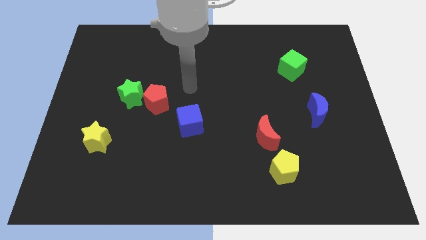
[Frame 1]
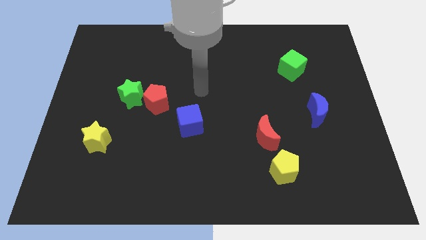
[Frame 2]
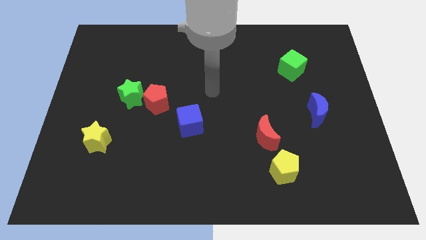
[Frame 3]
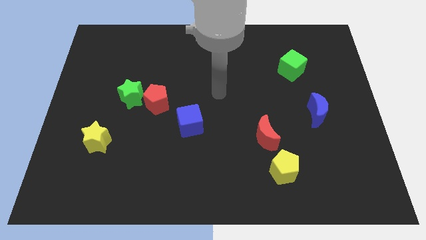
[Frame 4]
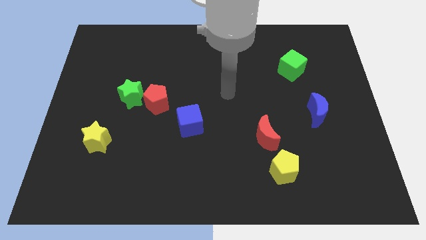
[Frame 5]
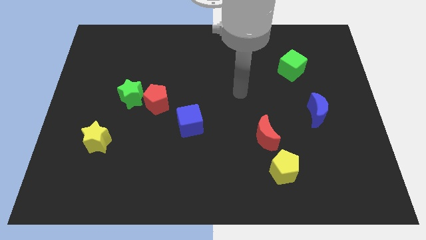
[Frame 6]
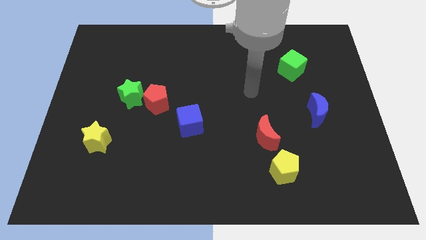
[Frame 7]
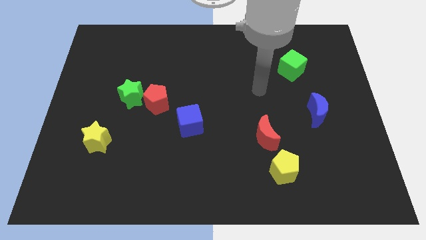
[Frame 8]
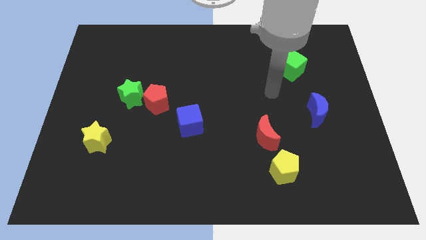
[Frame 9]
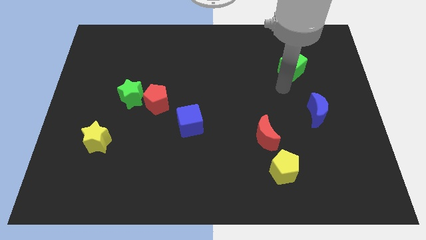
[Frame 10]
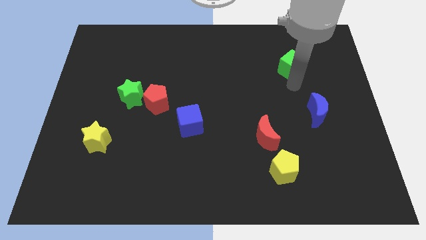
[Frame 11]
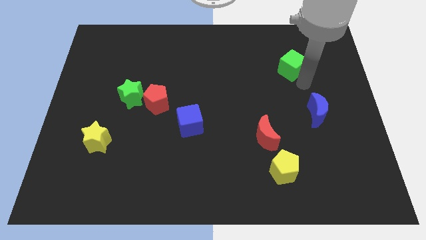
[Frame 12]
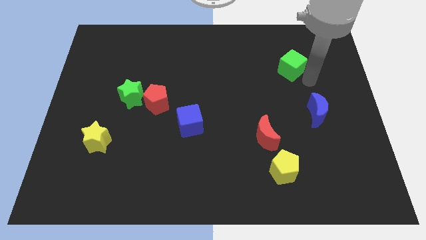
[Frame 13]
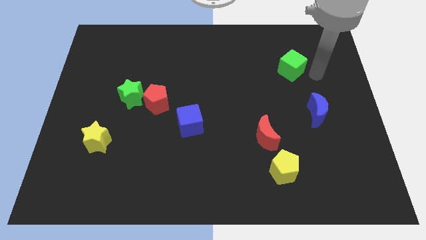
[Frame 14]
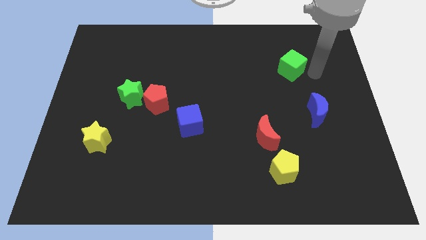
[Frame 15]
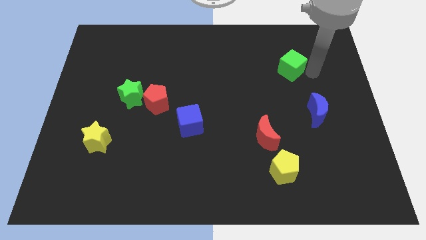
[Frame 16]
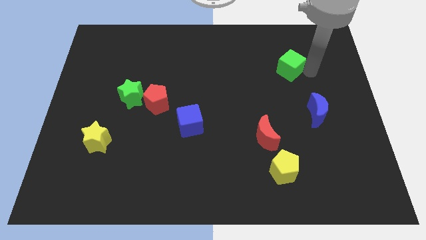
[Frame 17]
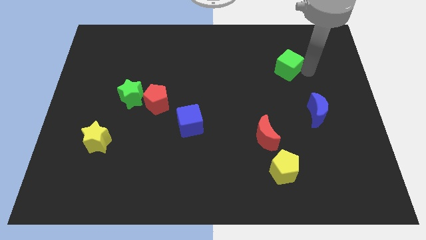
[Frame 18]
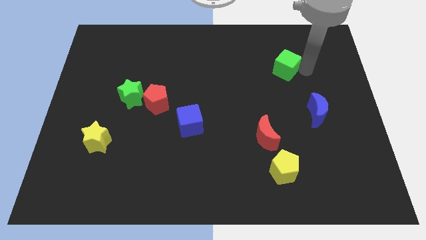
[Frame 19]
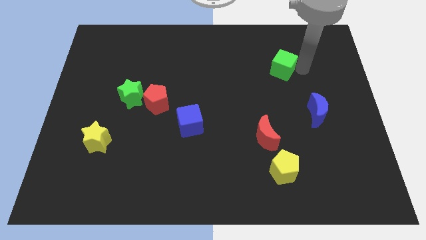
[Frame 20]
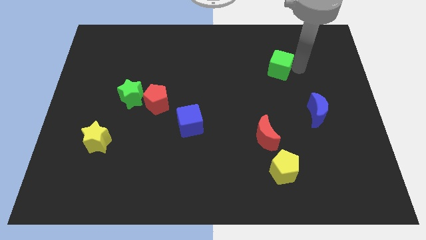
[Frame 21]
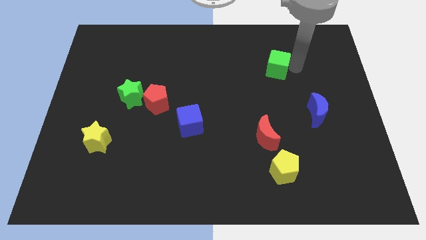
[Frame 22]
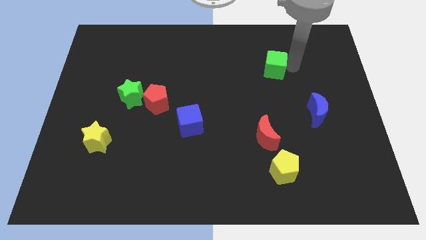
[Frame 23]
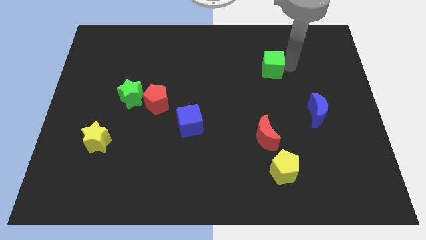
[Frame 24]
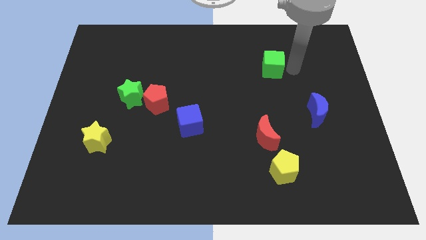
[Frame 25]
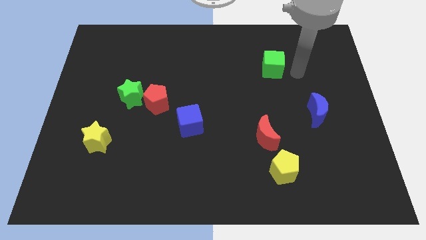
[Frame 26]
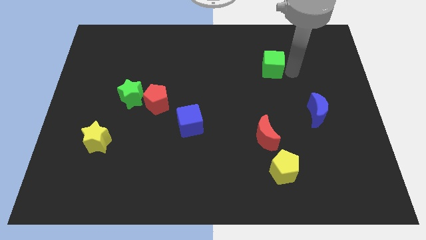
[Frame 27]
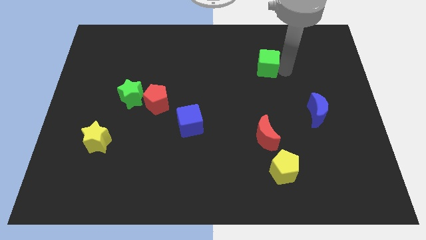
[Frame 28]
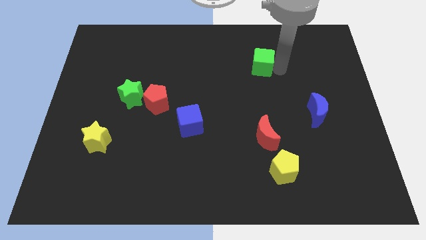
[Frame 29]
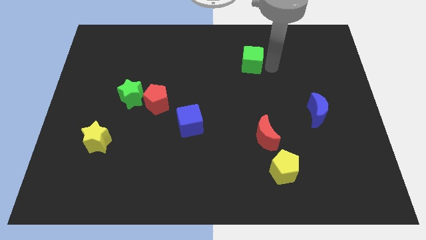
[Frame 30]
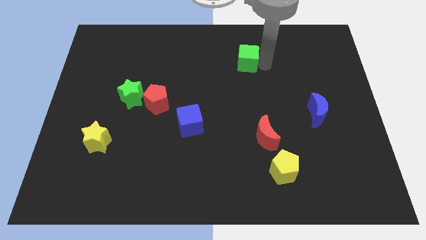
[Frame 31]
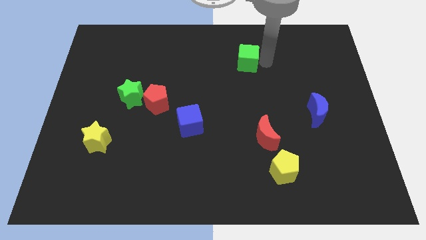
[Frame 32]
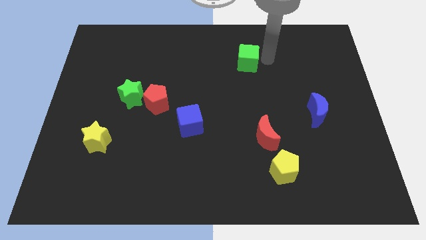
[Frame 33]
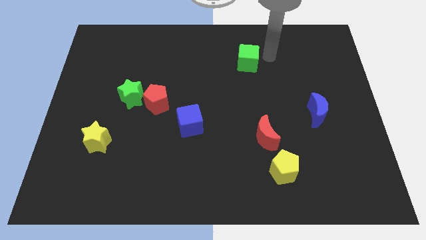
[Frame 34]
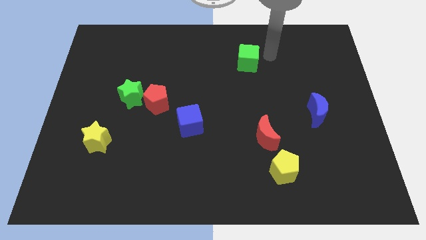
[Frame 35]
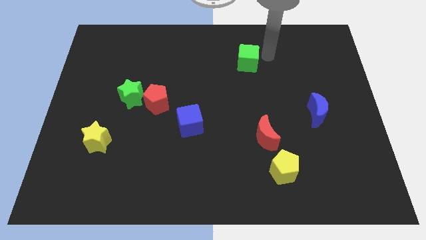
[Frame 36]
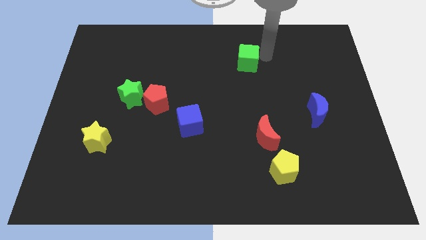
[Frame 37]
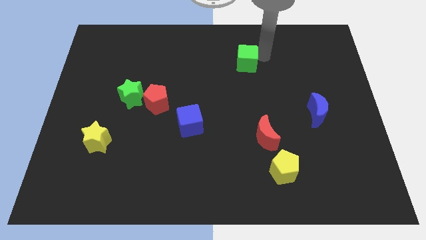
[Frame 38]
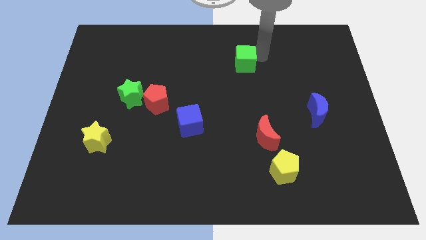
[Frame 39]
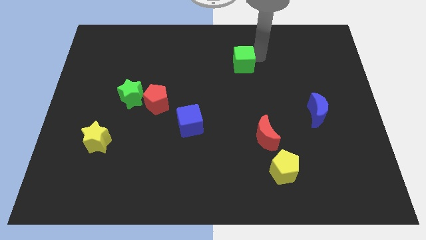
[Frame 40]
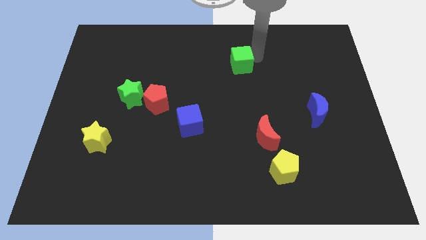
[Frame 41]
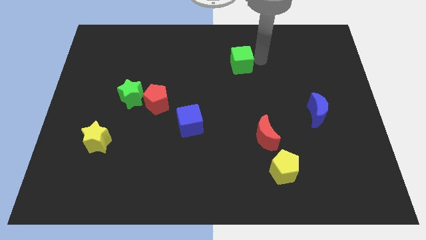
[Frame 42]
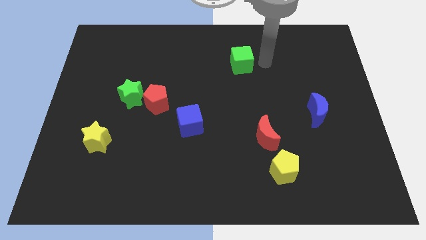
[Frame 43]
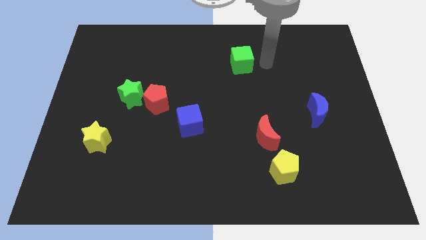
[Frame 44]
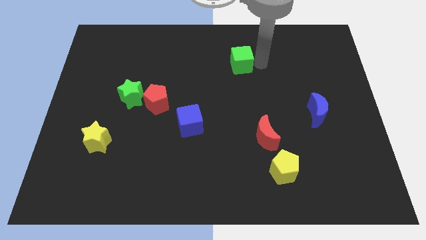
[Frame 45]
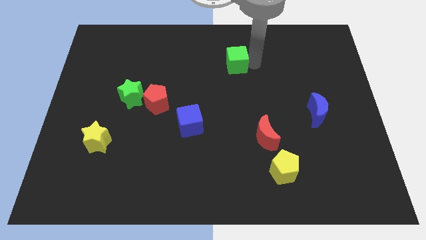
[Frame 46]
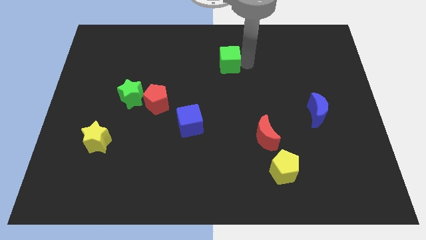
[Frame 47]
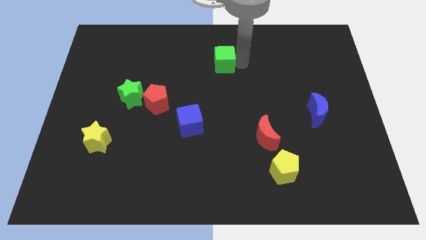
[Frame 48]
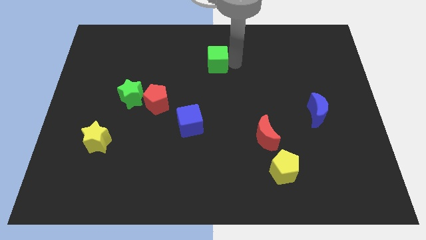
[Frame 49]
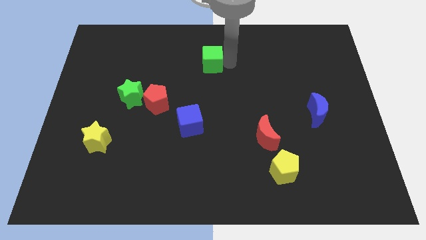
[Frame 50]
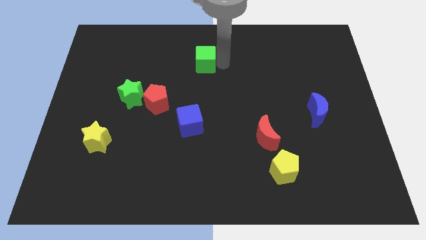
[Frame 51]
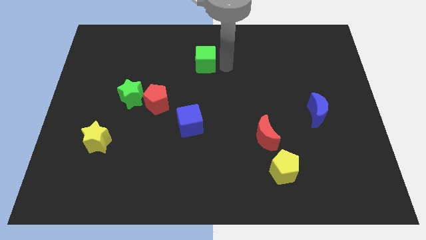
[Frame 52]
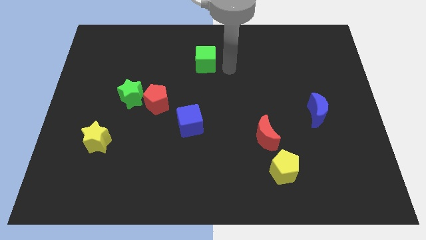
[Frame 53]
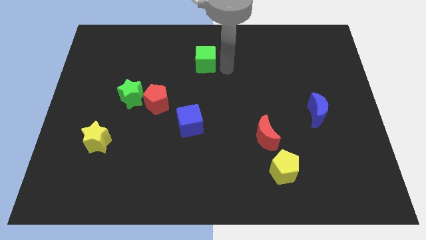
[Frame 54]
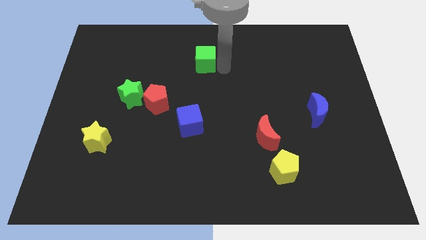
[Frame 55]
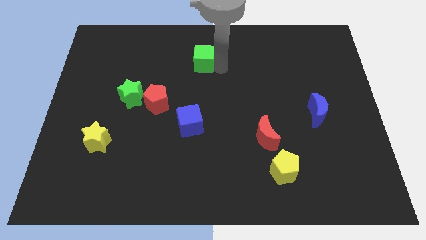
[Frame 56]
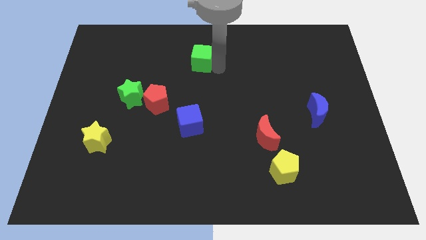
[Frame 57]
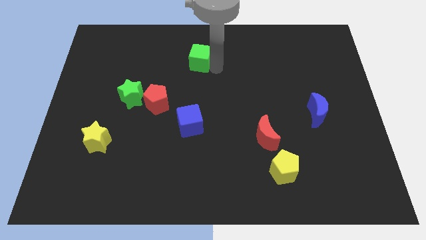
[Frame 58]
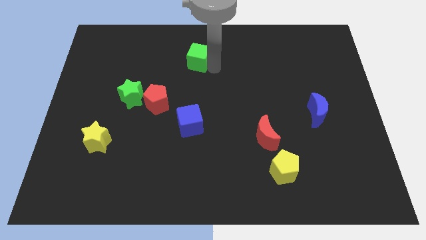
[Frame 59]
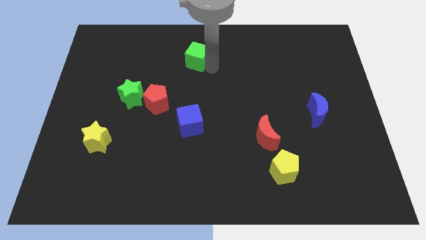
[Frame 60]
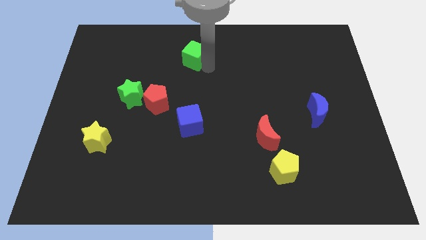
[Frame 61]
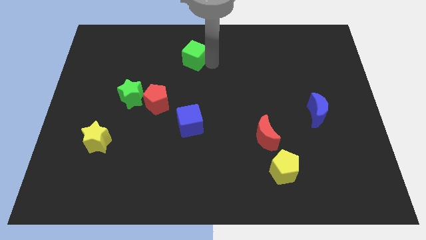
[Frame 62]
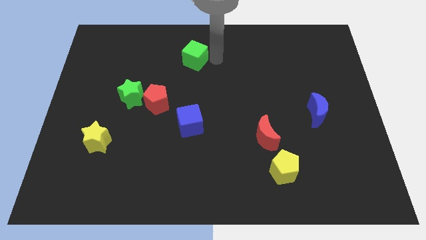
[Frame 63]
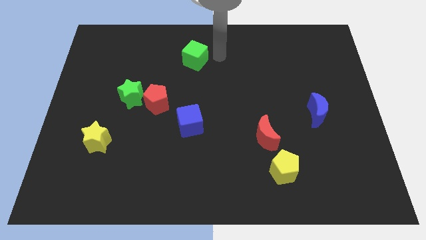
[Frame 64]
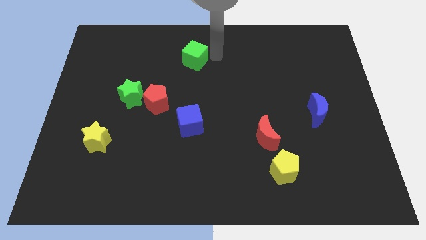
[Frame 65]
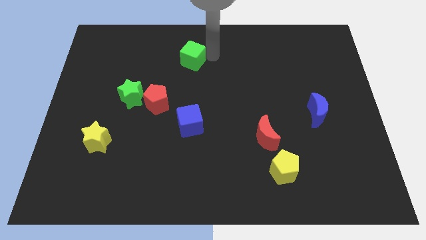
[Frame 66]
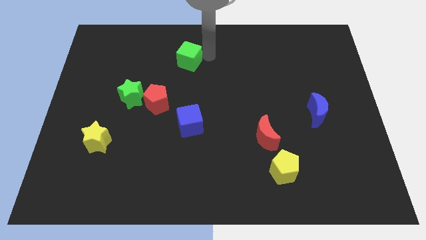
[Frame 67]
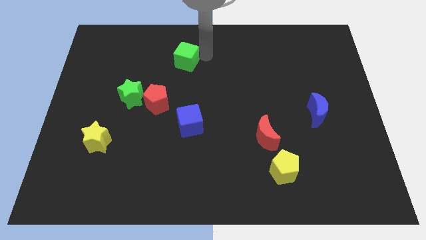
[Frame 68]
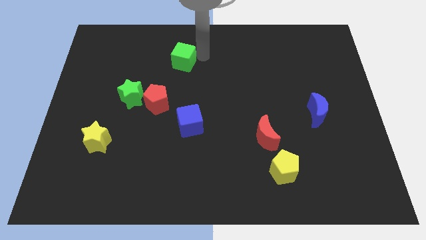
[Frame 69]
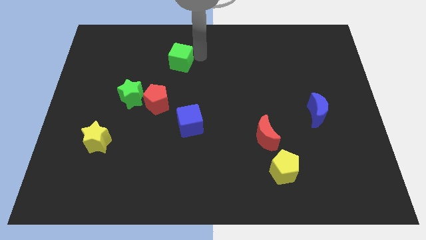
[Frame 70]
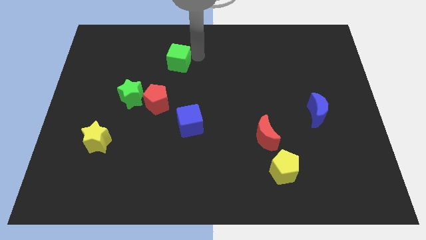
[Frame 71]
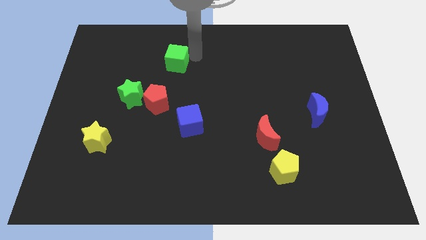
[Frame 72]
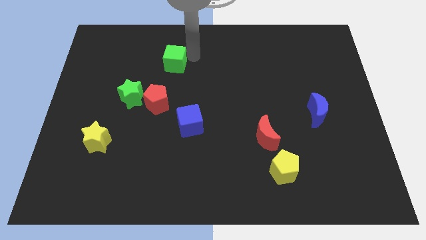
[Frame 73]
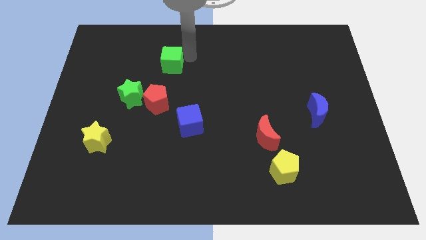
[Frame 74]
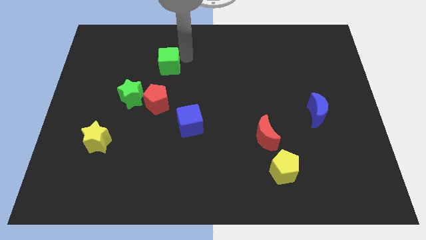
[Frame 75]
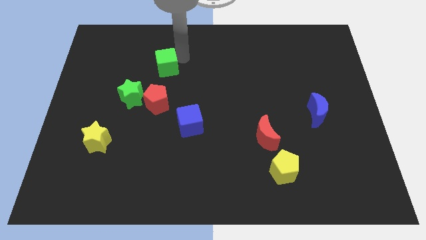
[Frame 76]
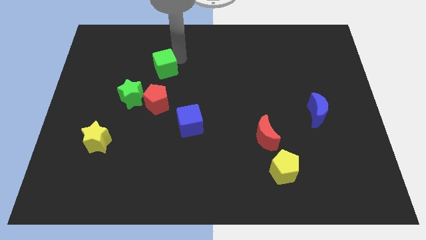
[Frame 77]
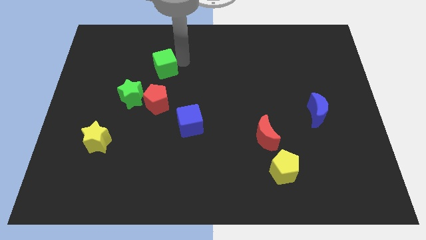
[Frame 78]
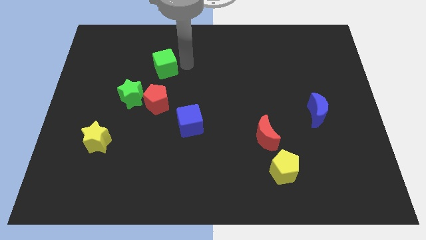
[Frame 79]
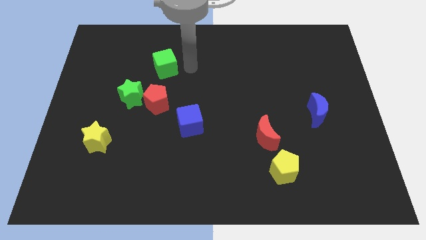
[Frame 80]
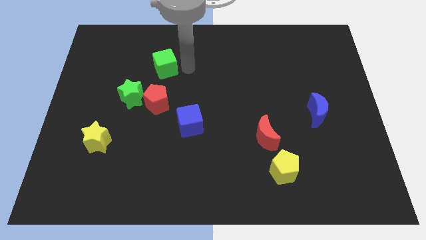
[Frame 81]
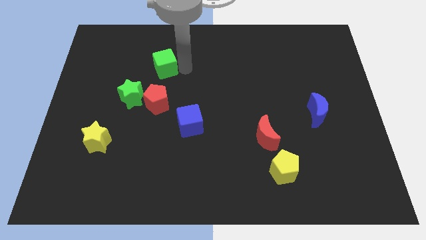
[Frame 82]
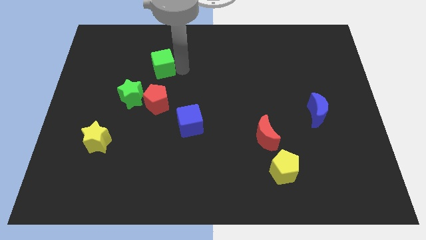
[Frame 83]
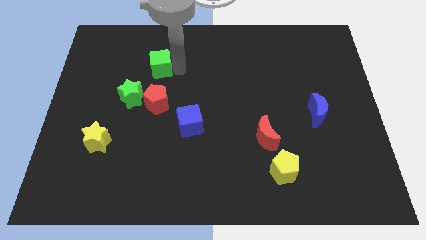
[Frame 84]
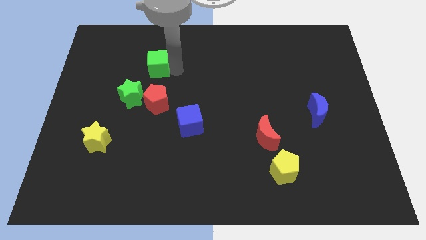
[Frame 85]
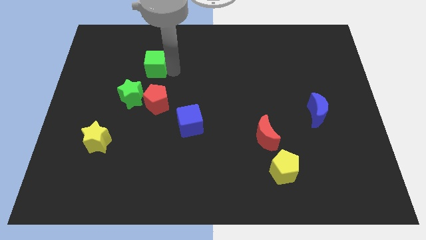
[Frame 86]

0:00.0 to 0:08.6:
push the green cube to the top of the green star
